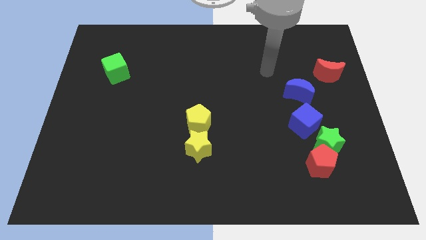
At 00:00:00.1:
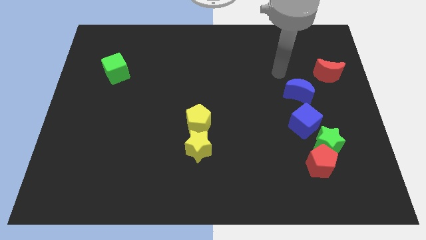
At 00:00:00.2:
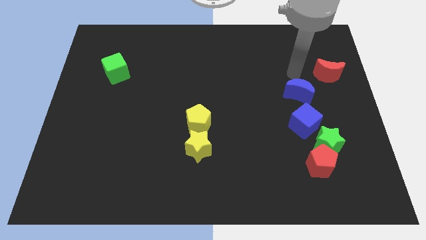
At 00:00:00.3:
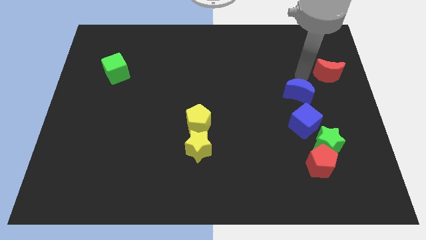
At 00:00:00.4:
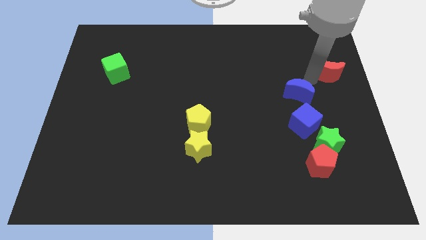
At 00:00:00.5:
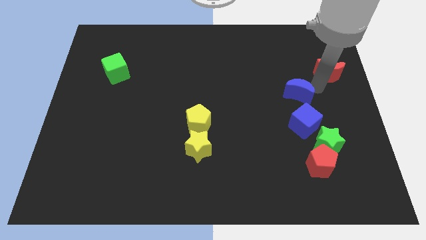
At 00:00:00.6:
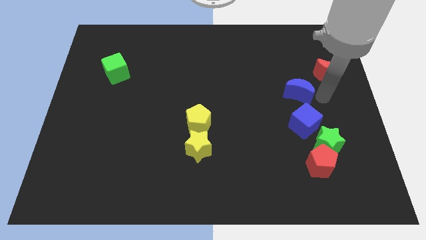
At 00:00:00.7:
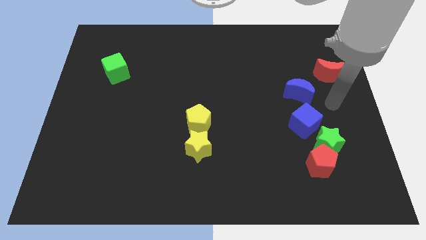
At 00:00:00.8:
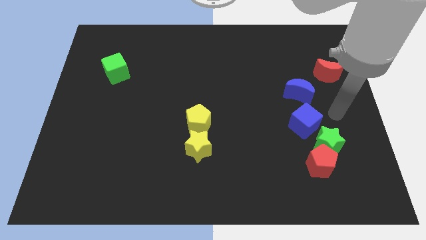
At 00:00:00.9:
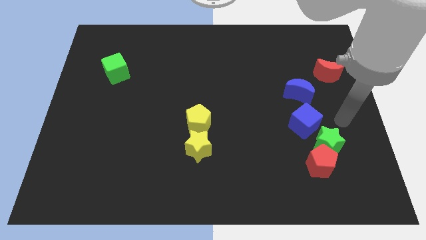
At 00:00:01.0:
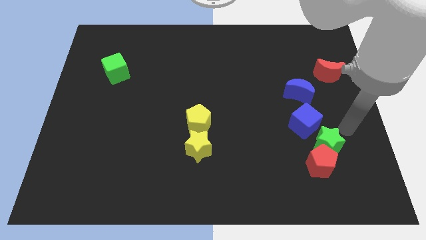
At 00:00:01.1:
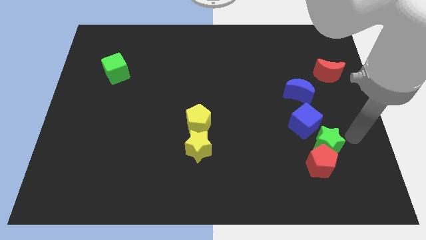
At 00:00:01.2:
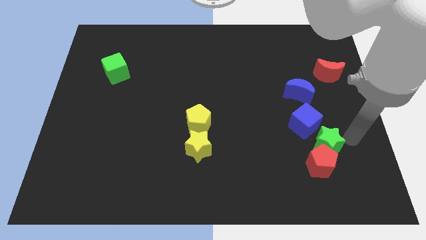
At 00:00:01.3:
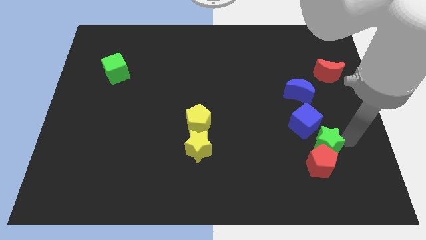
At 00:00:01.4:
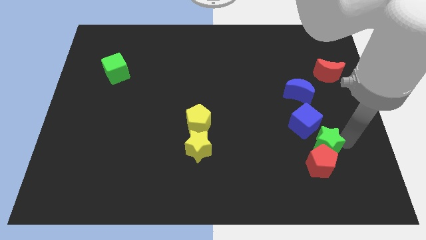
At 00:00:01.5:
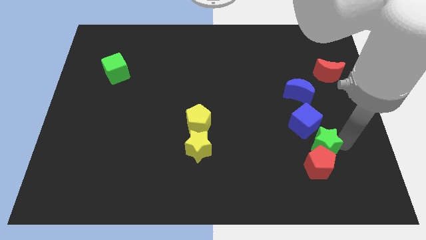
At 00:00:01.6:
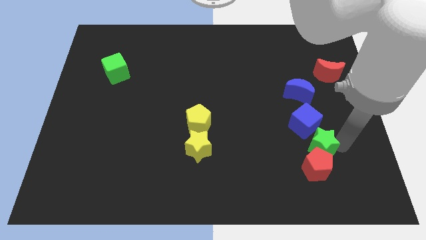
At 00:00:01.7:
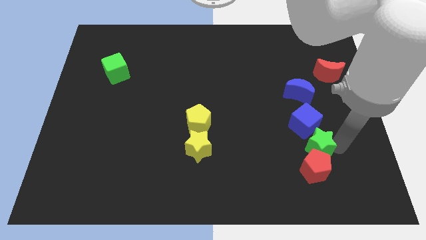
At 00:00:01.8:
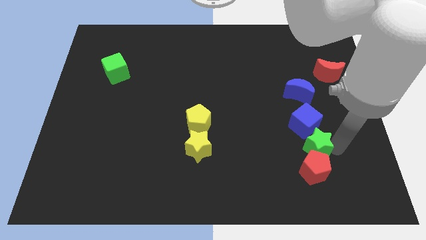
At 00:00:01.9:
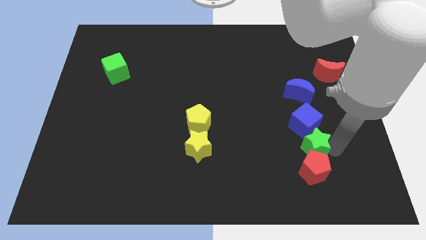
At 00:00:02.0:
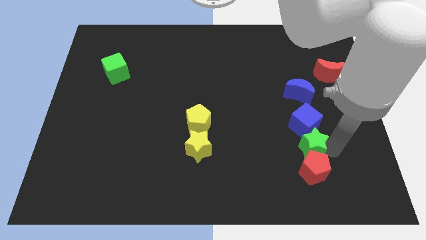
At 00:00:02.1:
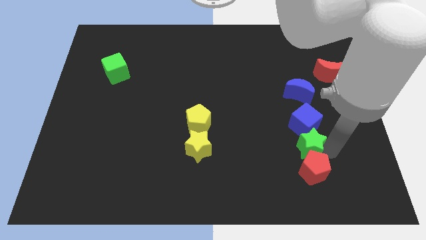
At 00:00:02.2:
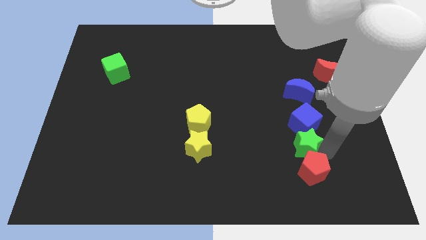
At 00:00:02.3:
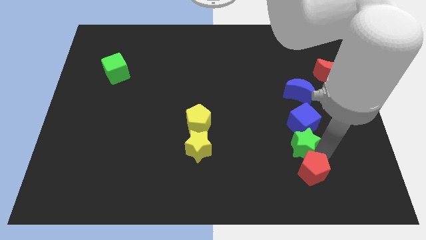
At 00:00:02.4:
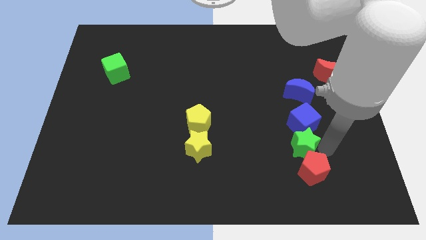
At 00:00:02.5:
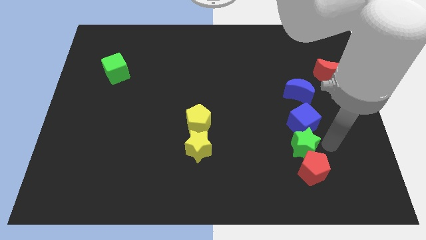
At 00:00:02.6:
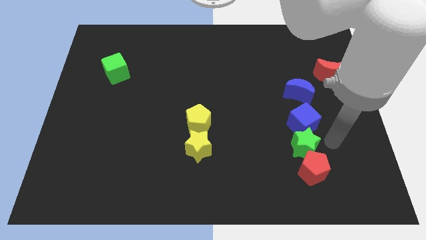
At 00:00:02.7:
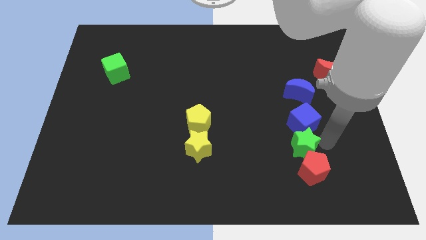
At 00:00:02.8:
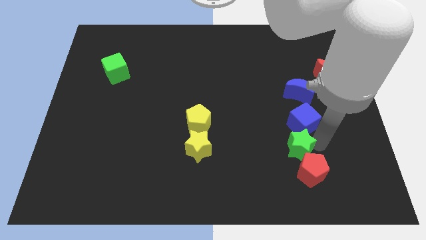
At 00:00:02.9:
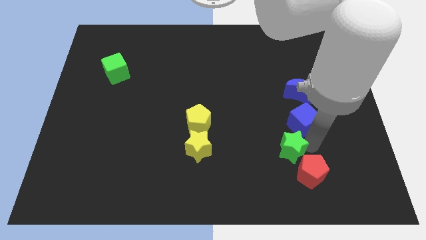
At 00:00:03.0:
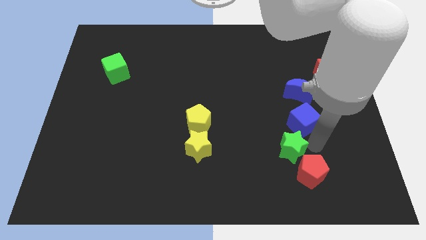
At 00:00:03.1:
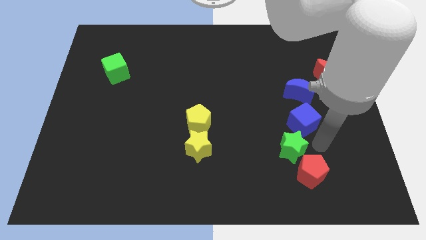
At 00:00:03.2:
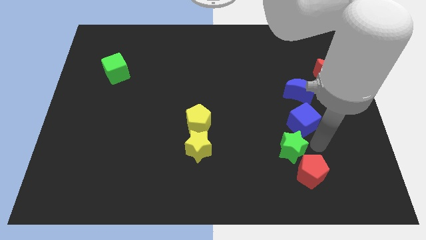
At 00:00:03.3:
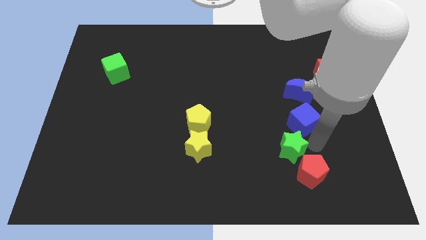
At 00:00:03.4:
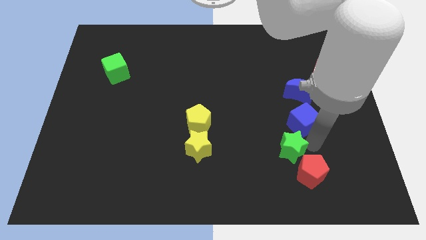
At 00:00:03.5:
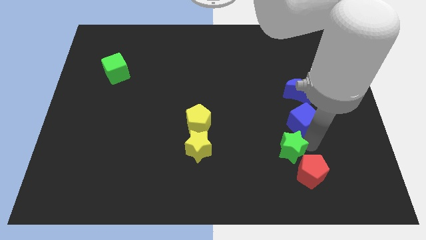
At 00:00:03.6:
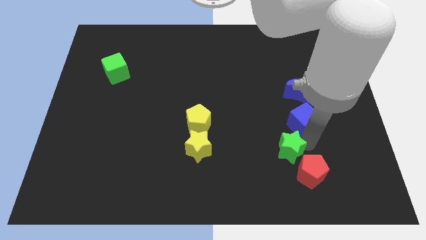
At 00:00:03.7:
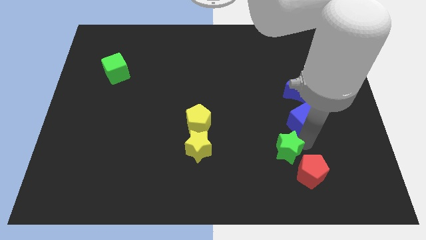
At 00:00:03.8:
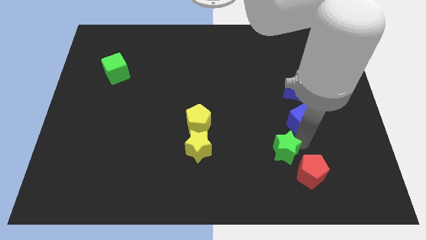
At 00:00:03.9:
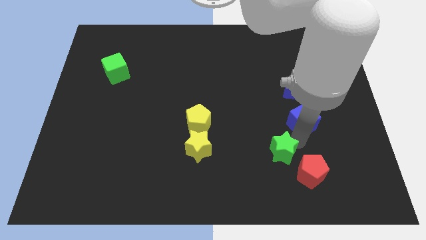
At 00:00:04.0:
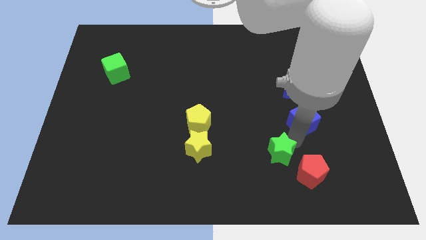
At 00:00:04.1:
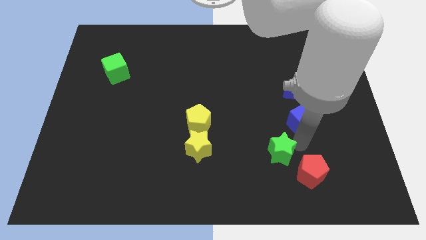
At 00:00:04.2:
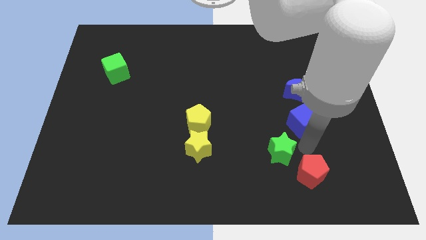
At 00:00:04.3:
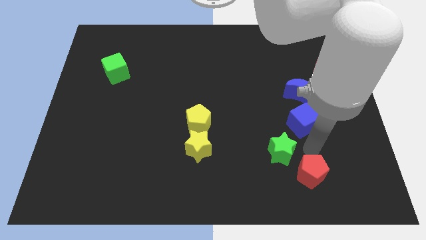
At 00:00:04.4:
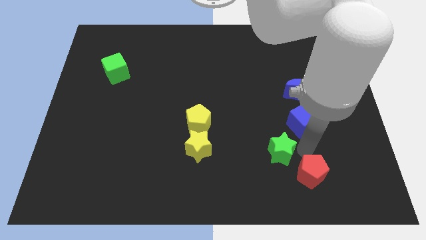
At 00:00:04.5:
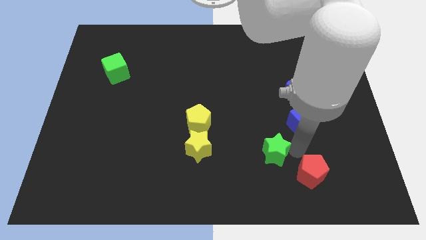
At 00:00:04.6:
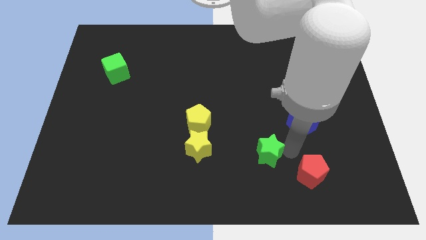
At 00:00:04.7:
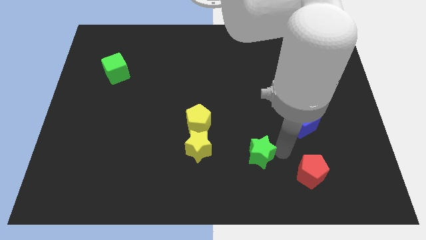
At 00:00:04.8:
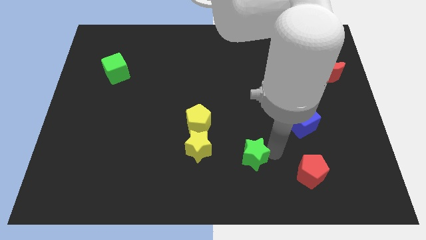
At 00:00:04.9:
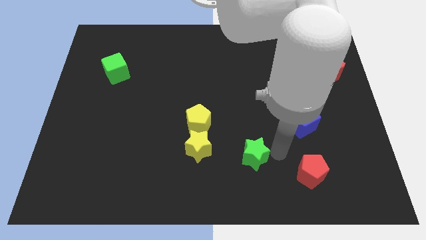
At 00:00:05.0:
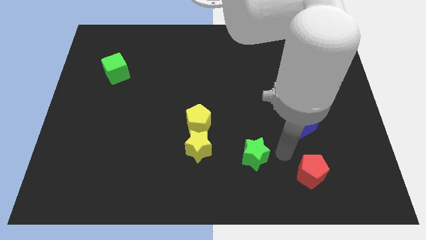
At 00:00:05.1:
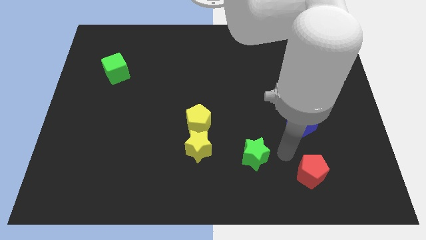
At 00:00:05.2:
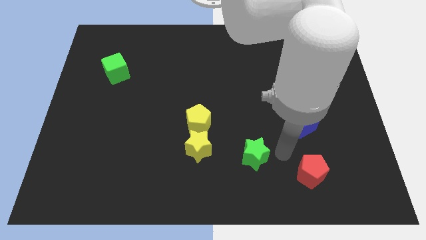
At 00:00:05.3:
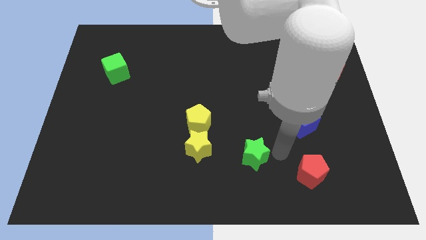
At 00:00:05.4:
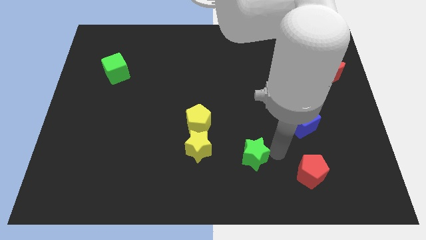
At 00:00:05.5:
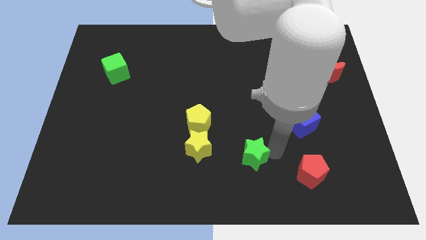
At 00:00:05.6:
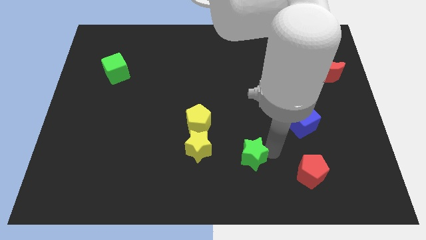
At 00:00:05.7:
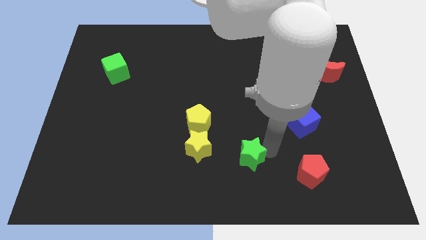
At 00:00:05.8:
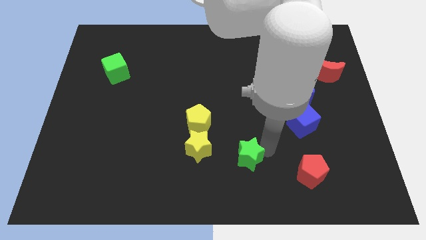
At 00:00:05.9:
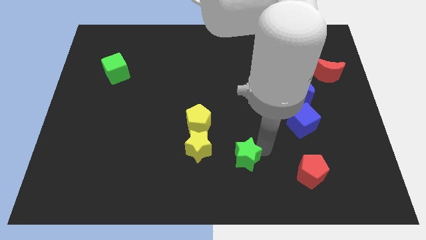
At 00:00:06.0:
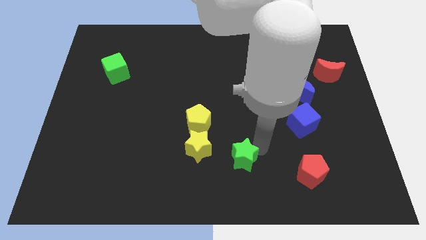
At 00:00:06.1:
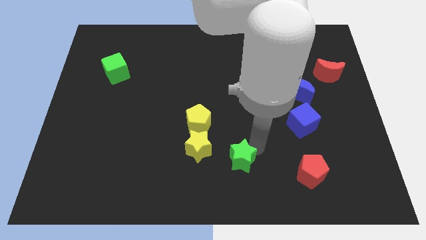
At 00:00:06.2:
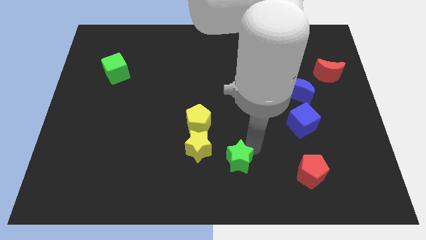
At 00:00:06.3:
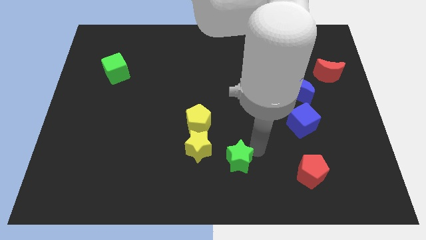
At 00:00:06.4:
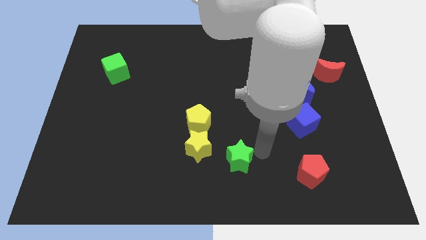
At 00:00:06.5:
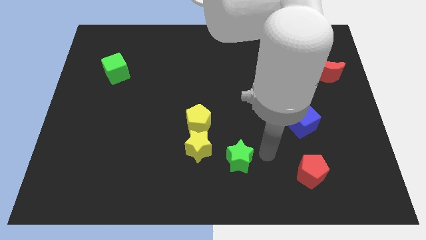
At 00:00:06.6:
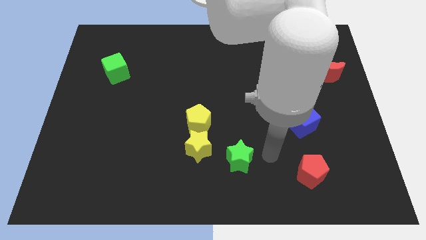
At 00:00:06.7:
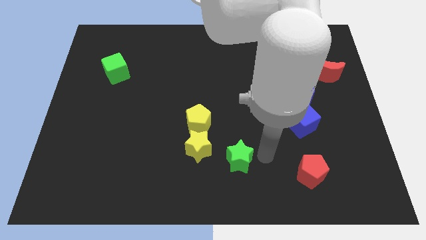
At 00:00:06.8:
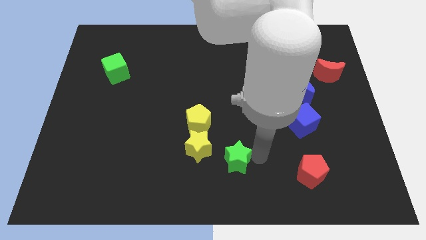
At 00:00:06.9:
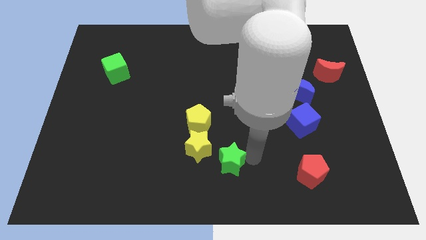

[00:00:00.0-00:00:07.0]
move the green star left

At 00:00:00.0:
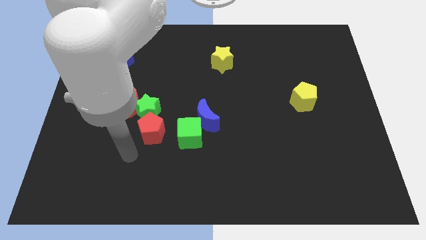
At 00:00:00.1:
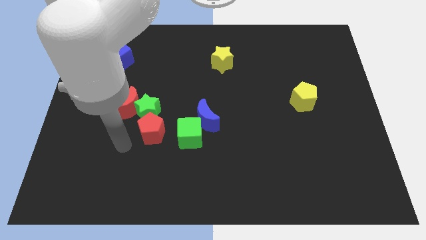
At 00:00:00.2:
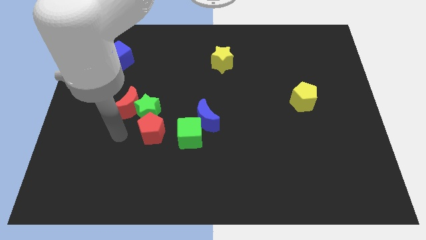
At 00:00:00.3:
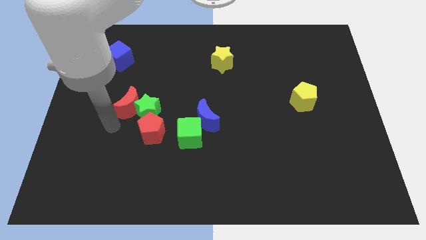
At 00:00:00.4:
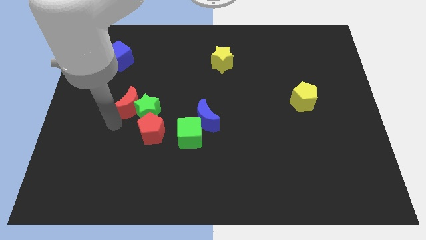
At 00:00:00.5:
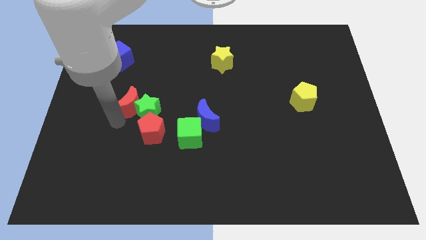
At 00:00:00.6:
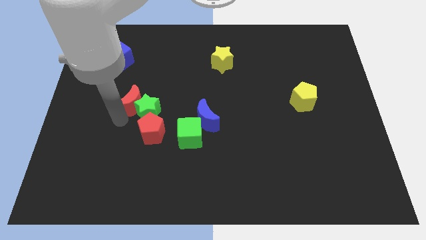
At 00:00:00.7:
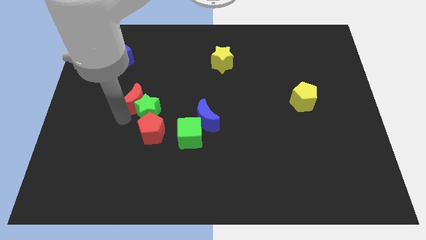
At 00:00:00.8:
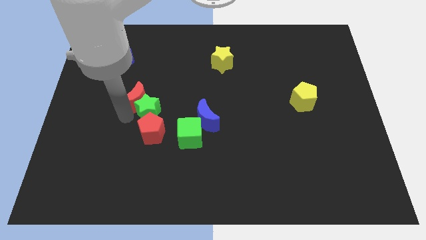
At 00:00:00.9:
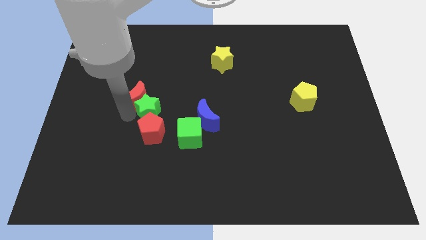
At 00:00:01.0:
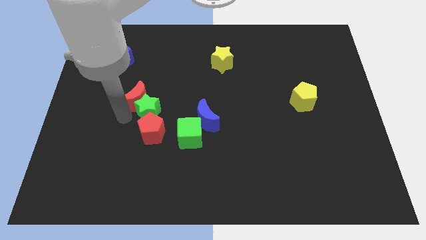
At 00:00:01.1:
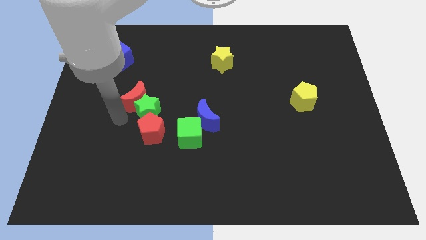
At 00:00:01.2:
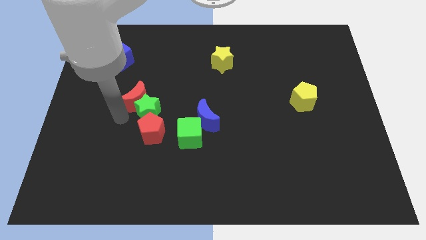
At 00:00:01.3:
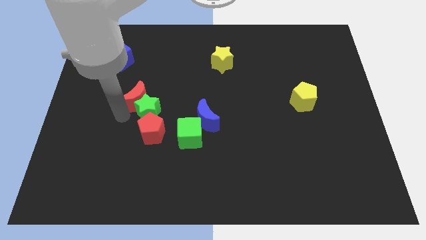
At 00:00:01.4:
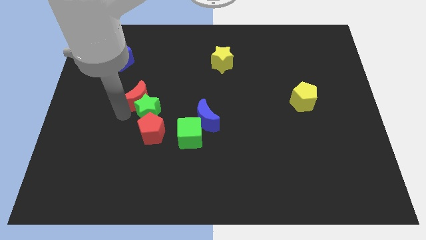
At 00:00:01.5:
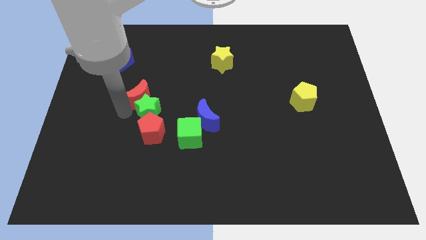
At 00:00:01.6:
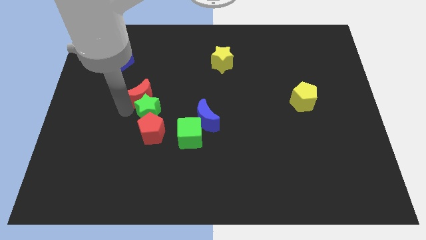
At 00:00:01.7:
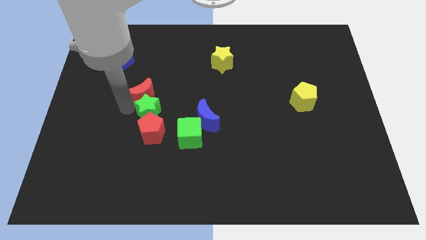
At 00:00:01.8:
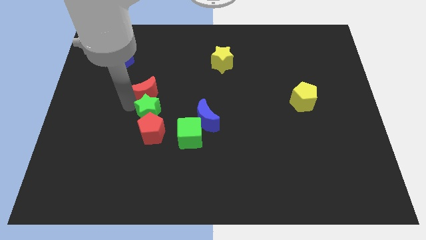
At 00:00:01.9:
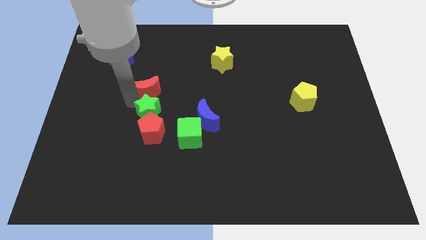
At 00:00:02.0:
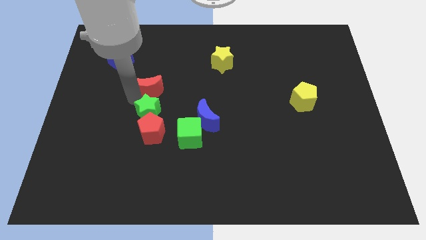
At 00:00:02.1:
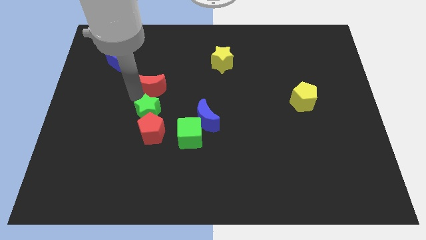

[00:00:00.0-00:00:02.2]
push the red moon a bit diagonally up and to the right
